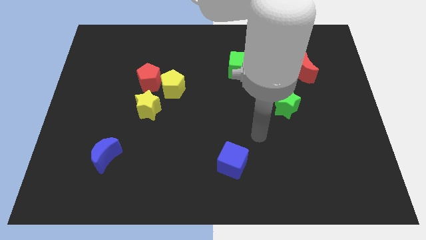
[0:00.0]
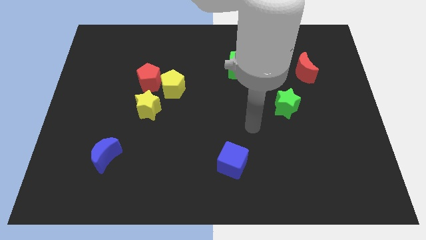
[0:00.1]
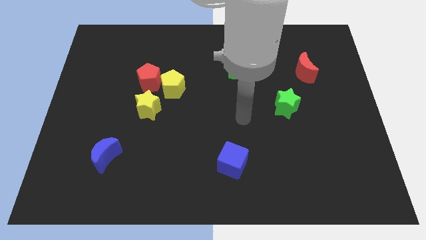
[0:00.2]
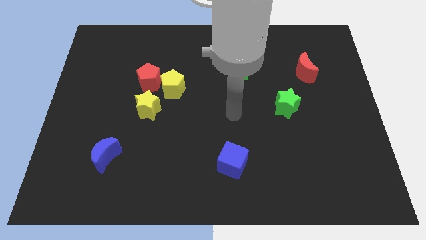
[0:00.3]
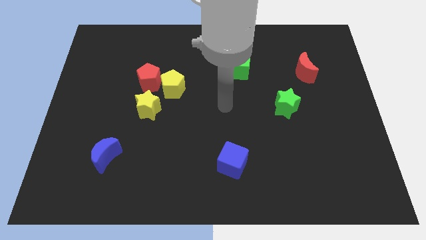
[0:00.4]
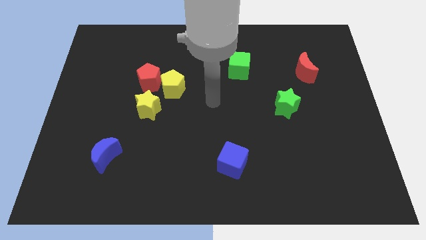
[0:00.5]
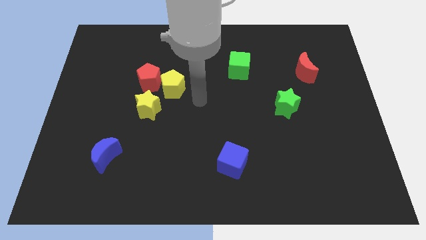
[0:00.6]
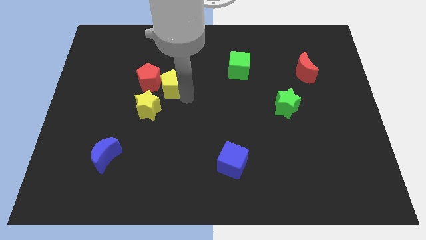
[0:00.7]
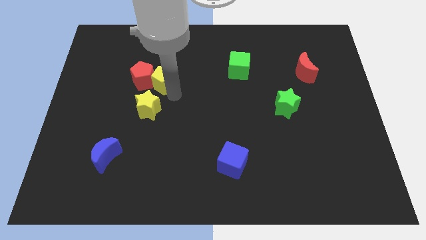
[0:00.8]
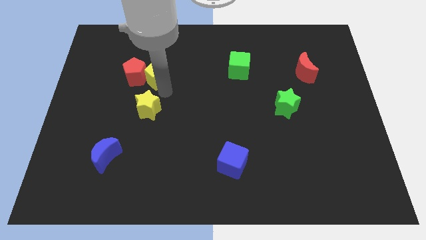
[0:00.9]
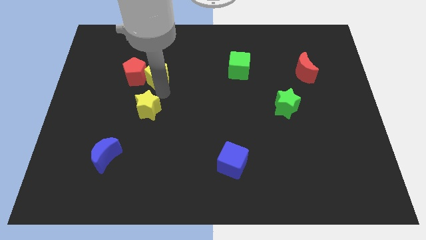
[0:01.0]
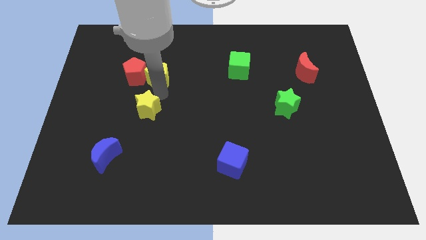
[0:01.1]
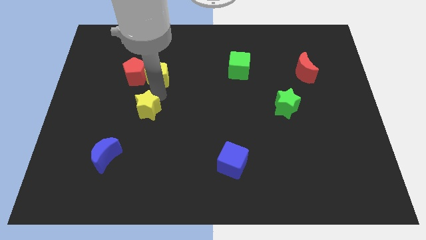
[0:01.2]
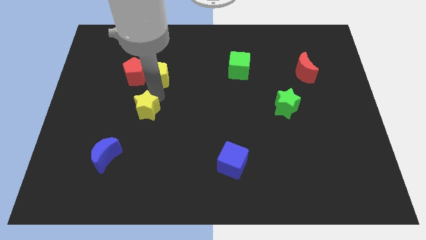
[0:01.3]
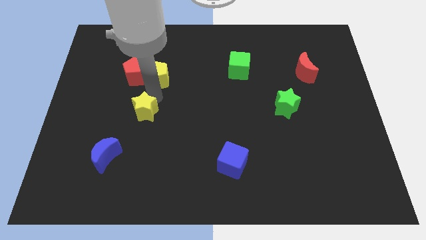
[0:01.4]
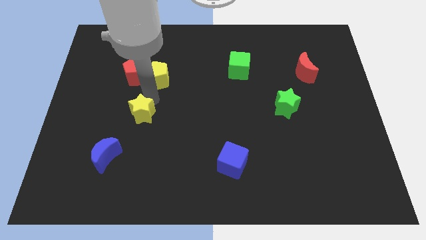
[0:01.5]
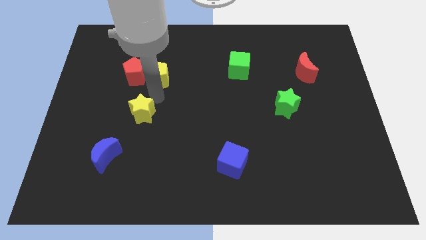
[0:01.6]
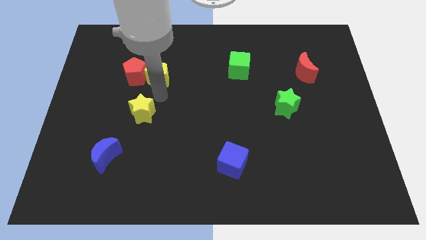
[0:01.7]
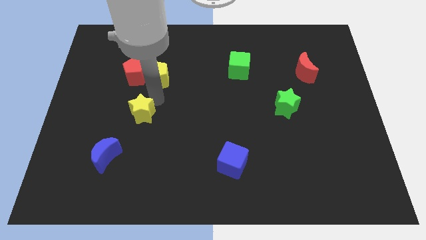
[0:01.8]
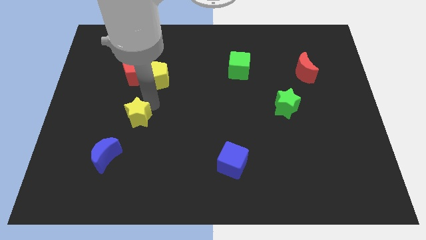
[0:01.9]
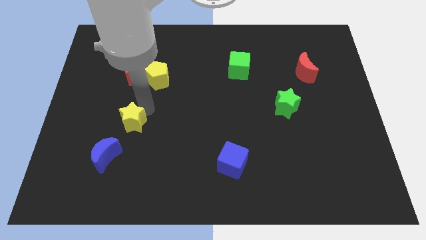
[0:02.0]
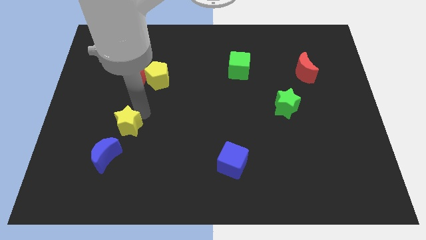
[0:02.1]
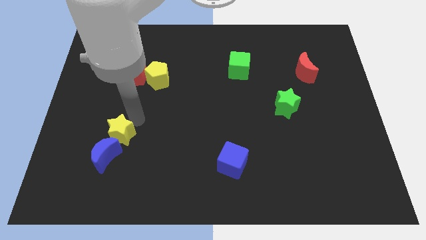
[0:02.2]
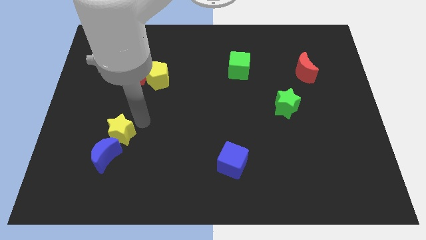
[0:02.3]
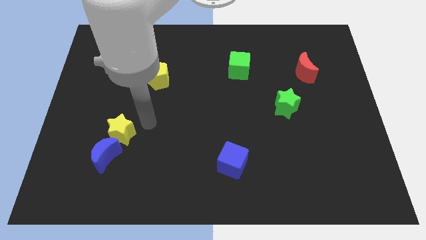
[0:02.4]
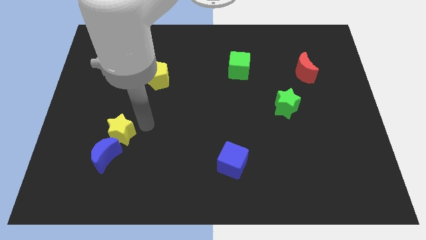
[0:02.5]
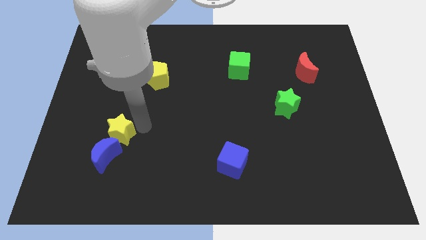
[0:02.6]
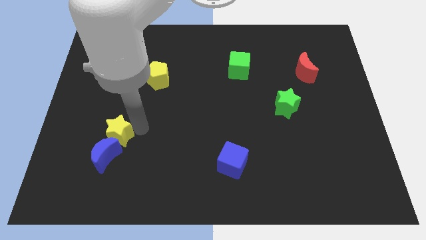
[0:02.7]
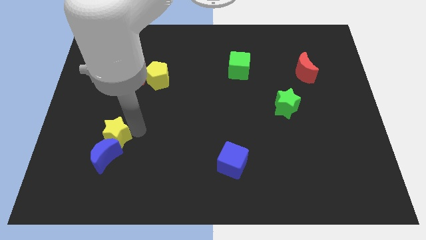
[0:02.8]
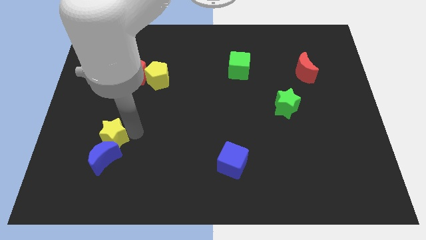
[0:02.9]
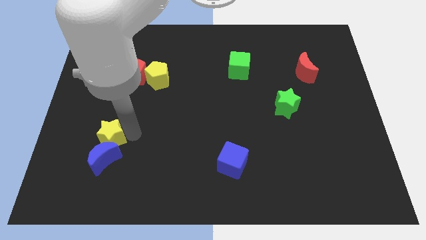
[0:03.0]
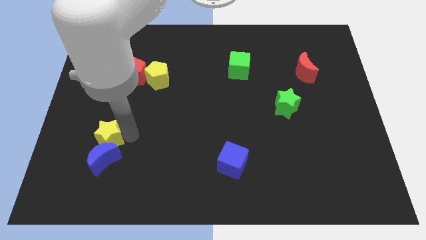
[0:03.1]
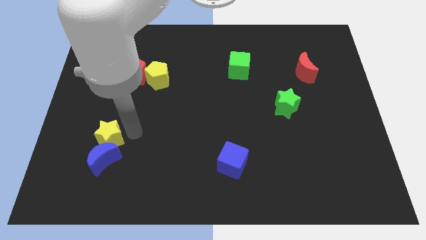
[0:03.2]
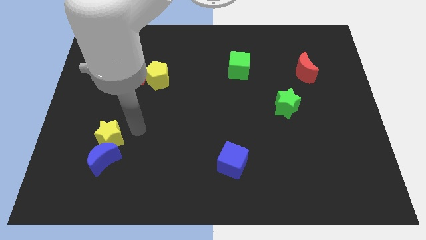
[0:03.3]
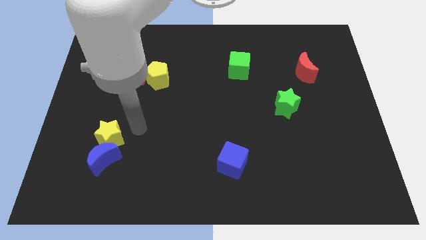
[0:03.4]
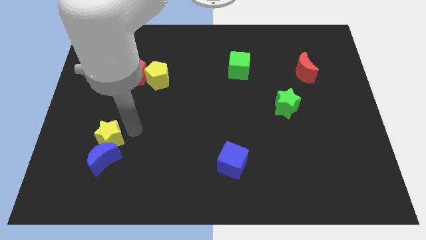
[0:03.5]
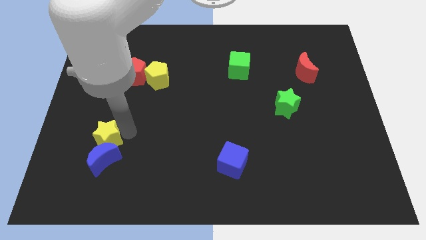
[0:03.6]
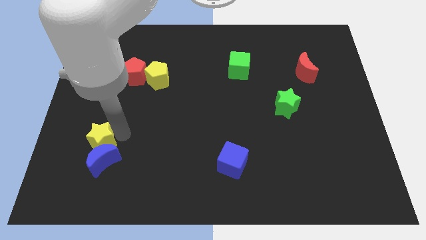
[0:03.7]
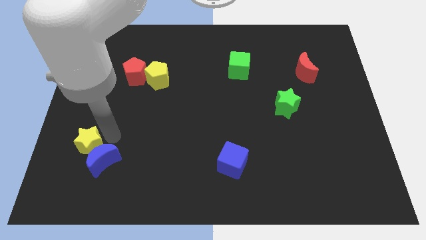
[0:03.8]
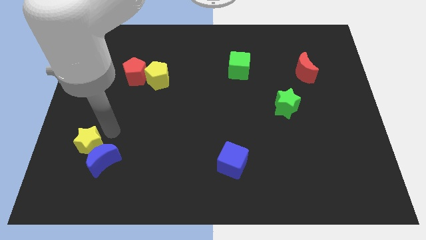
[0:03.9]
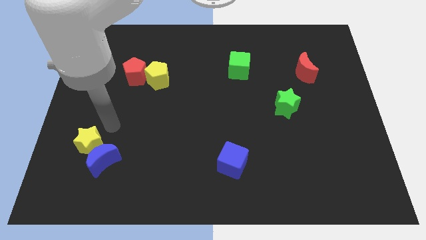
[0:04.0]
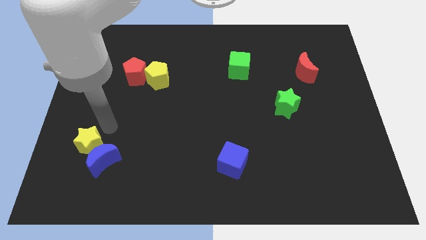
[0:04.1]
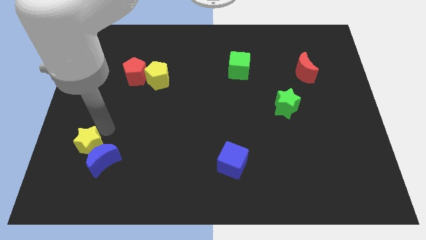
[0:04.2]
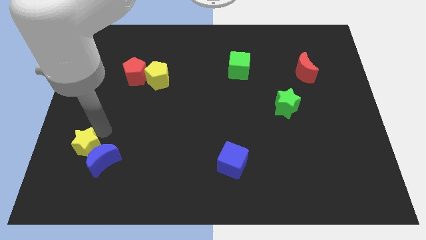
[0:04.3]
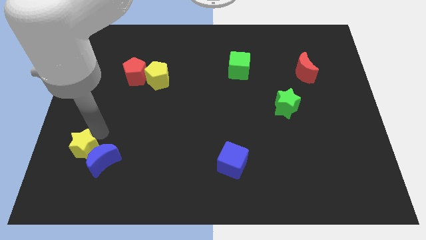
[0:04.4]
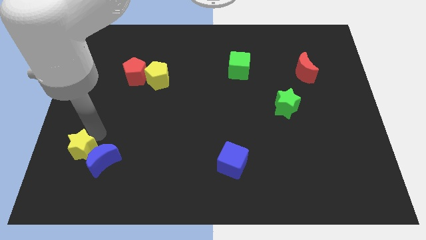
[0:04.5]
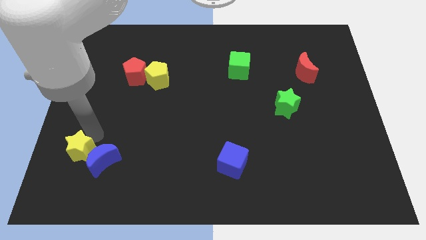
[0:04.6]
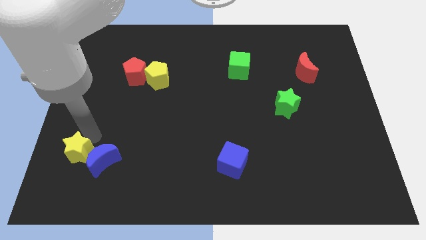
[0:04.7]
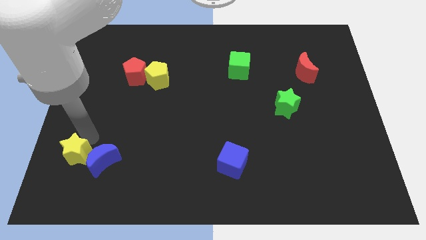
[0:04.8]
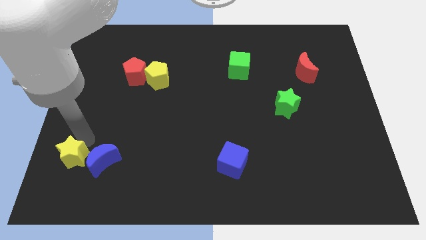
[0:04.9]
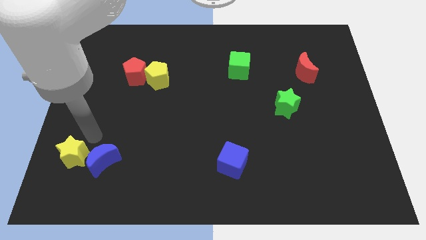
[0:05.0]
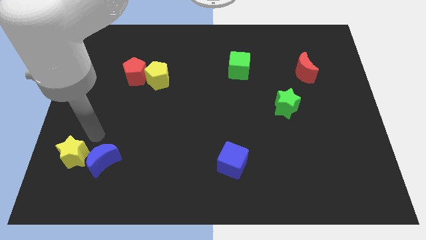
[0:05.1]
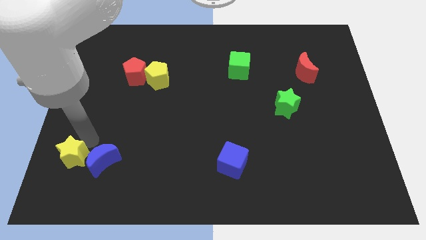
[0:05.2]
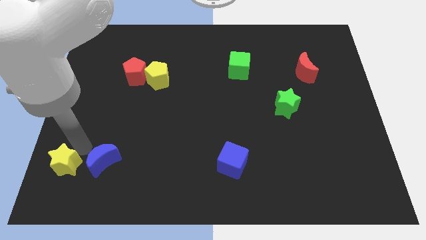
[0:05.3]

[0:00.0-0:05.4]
slide the yellow star to the lower left corner
